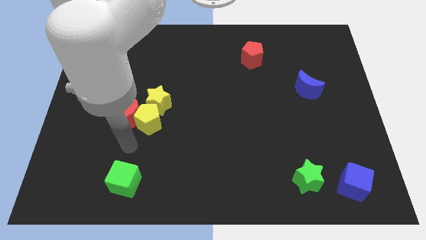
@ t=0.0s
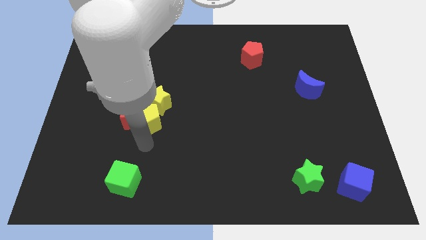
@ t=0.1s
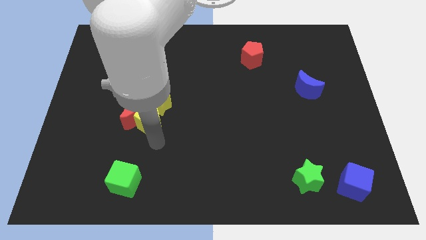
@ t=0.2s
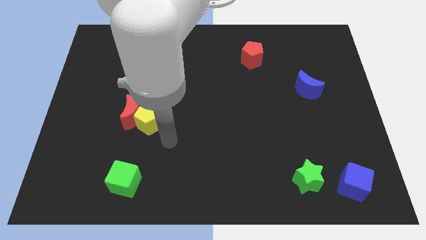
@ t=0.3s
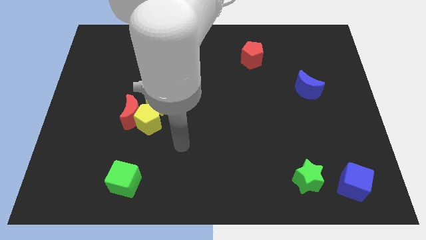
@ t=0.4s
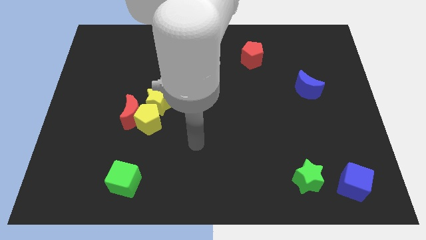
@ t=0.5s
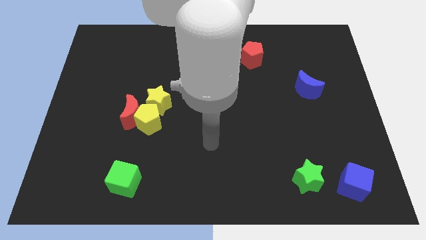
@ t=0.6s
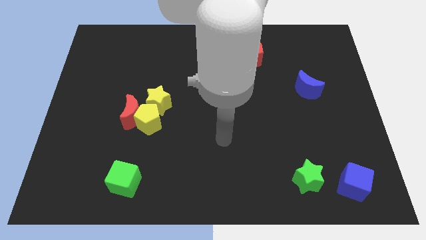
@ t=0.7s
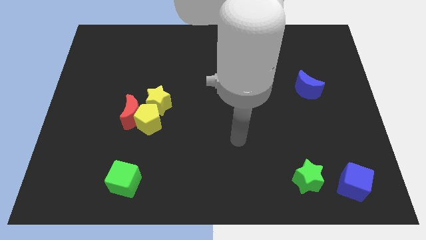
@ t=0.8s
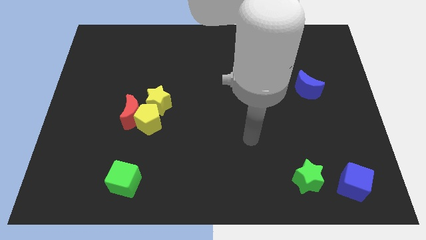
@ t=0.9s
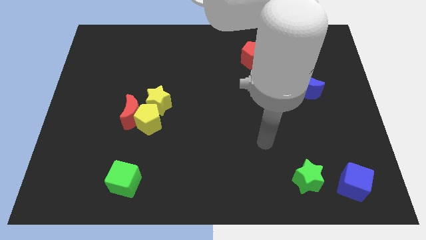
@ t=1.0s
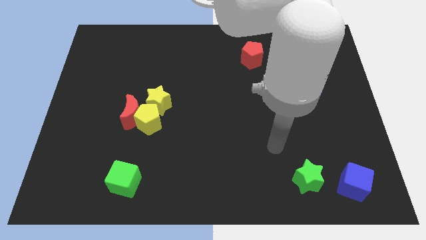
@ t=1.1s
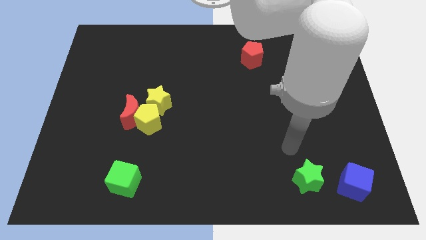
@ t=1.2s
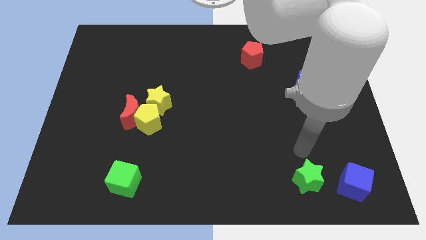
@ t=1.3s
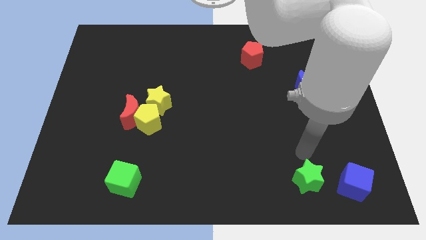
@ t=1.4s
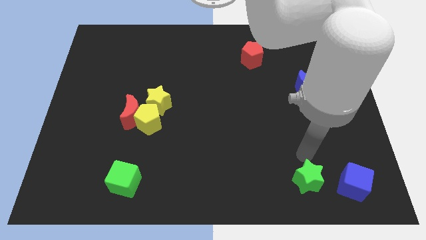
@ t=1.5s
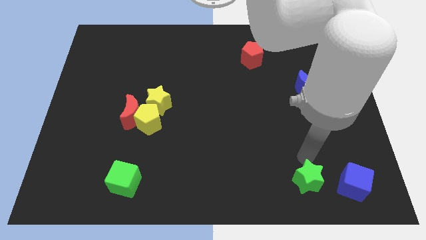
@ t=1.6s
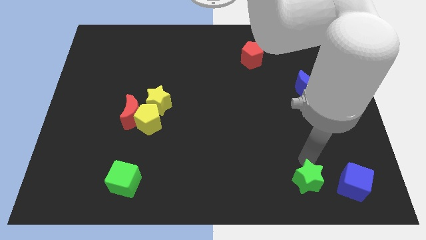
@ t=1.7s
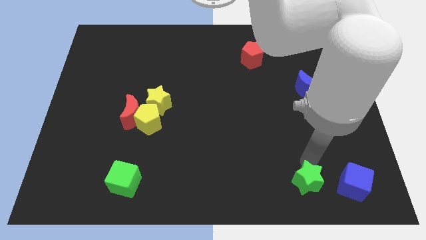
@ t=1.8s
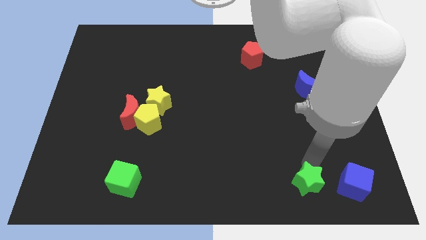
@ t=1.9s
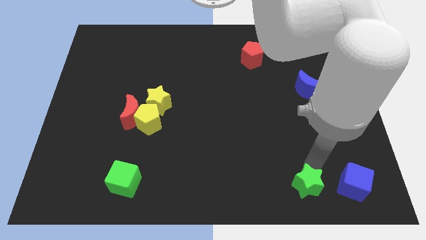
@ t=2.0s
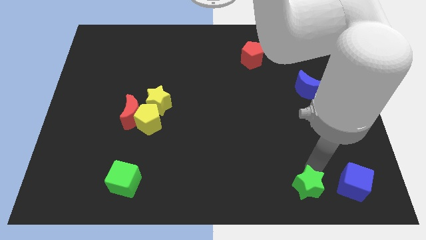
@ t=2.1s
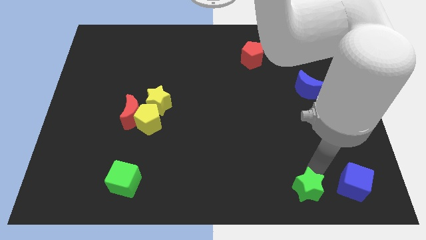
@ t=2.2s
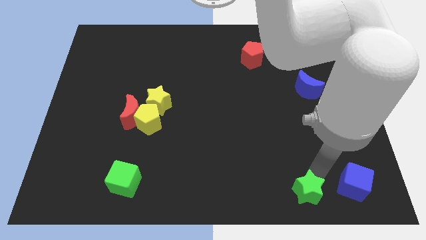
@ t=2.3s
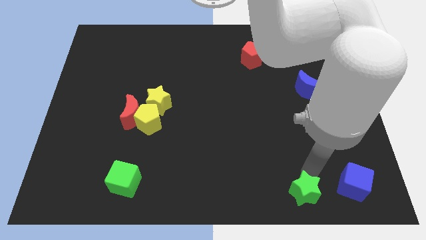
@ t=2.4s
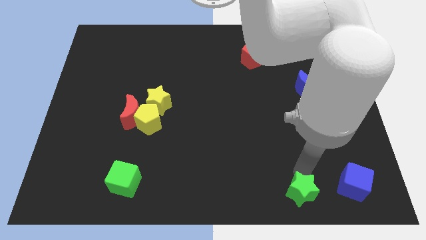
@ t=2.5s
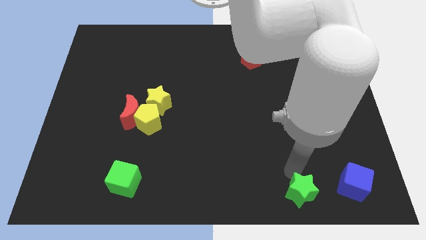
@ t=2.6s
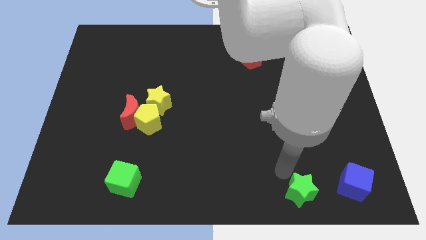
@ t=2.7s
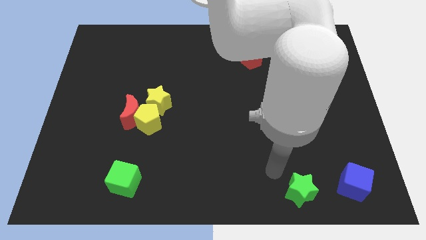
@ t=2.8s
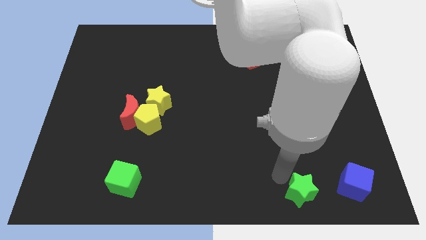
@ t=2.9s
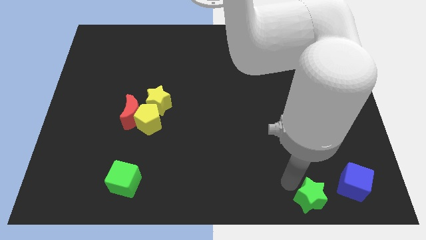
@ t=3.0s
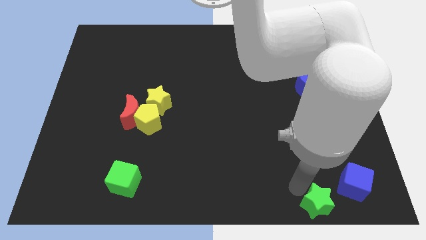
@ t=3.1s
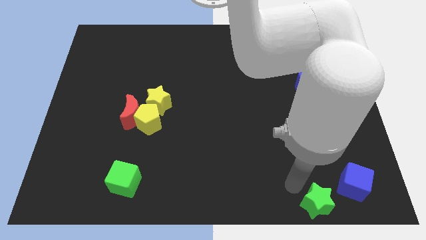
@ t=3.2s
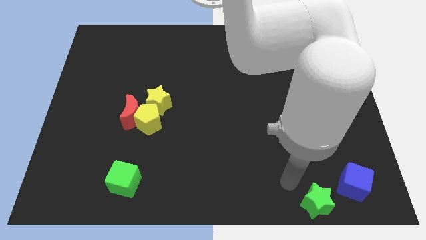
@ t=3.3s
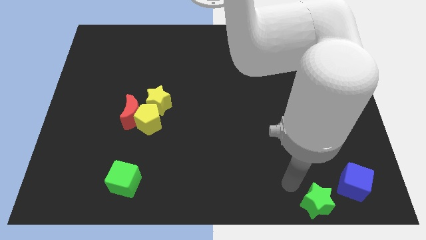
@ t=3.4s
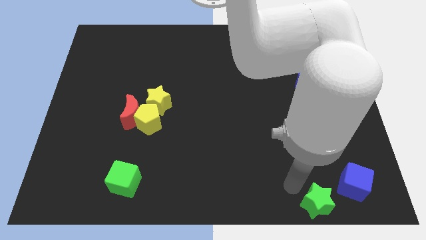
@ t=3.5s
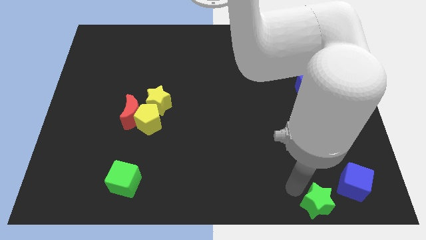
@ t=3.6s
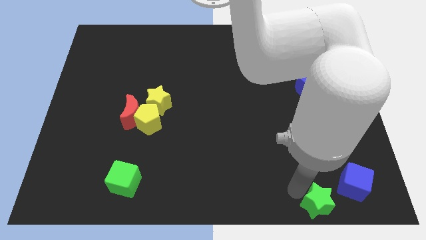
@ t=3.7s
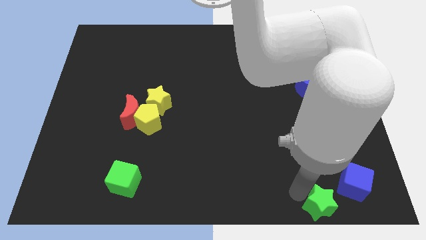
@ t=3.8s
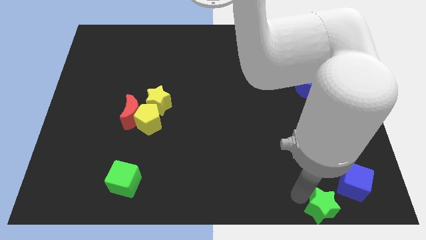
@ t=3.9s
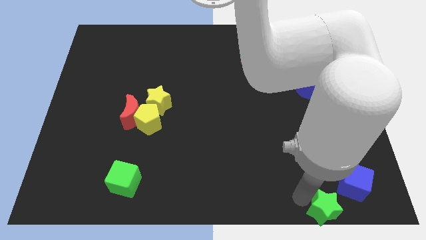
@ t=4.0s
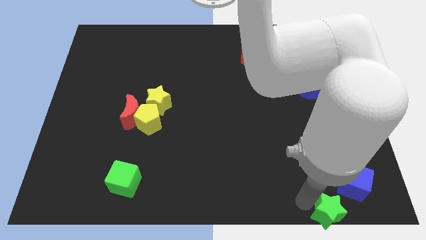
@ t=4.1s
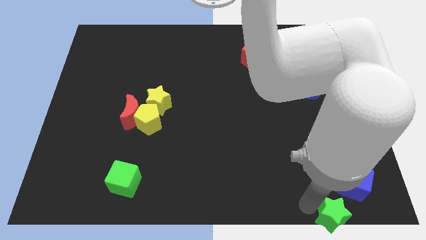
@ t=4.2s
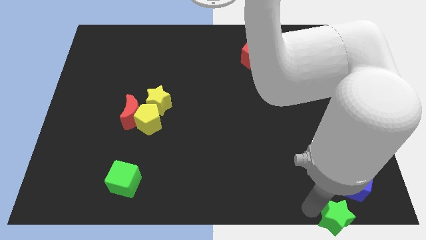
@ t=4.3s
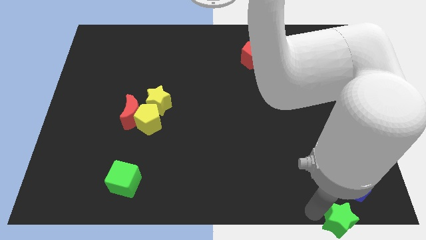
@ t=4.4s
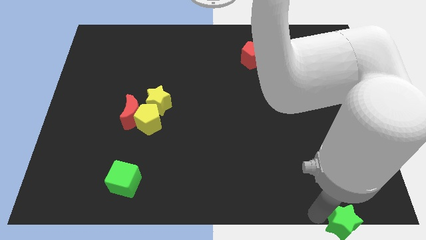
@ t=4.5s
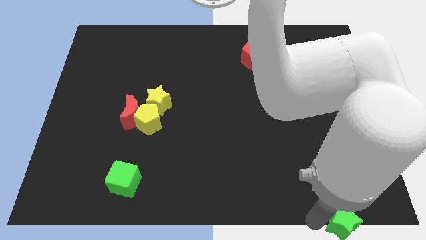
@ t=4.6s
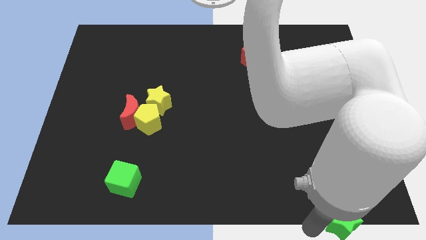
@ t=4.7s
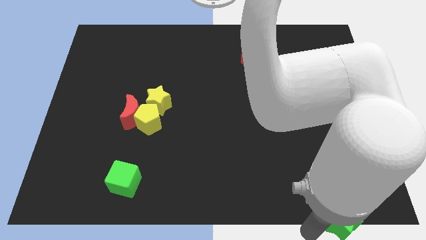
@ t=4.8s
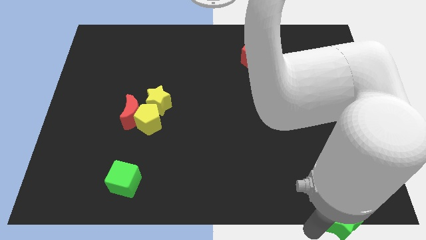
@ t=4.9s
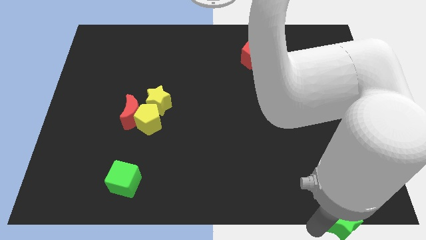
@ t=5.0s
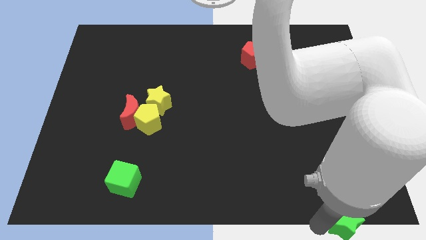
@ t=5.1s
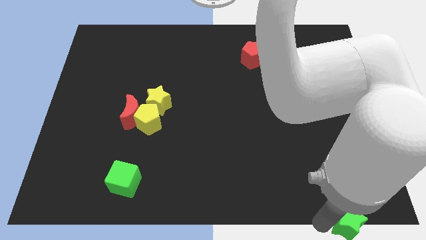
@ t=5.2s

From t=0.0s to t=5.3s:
put the green star to the bottom right corner
